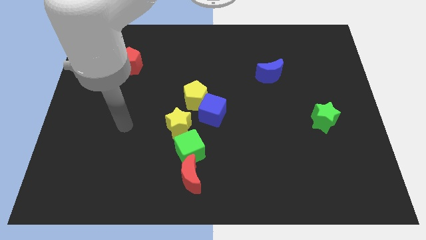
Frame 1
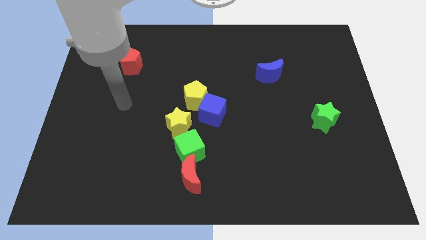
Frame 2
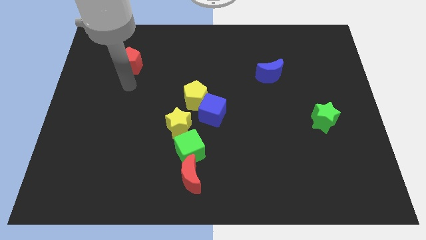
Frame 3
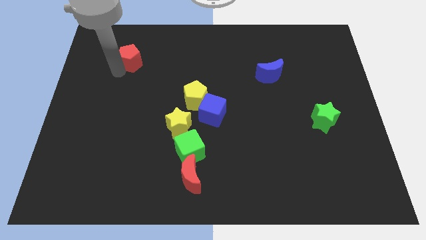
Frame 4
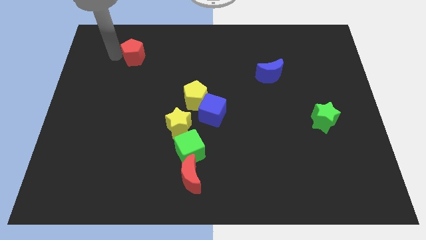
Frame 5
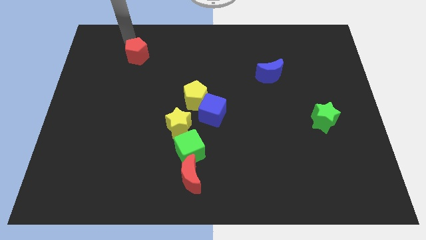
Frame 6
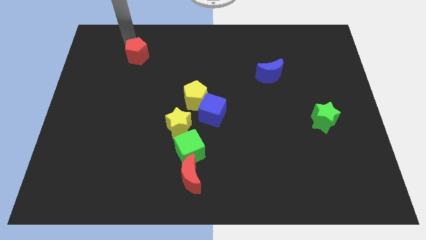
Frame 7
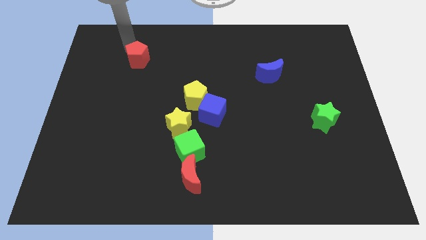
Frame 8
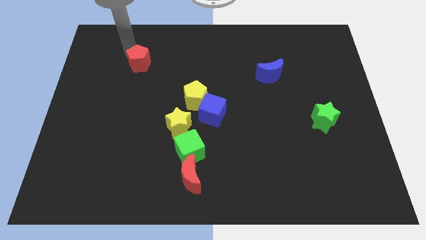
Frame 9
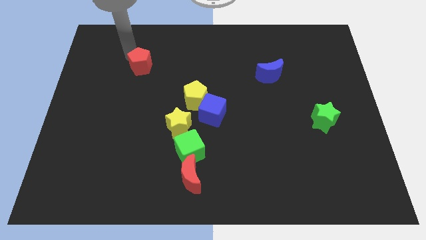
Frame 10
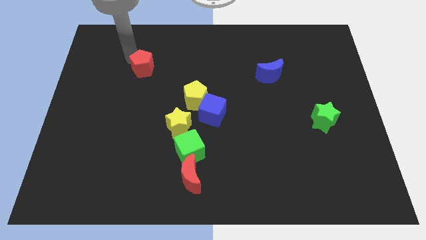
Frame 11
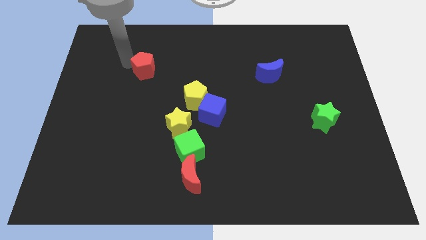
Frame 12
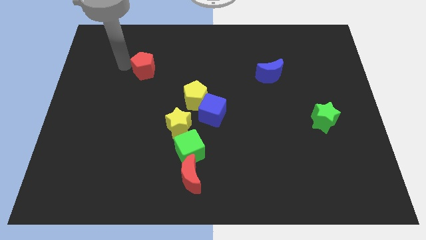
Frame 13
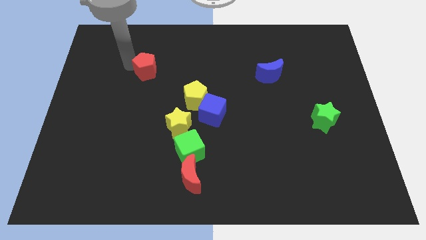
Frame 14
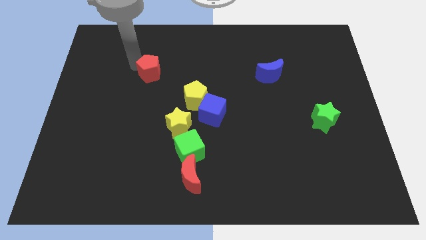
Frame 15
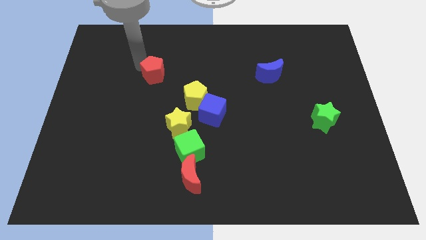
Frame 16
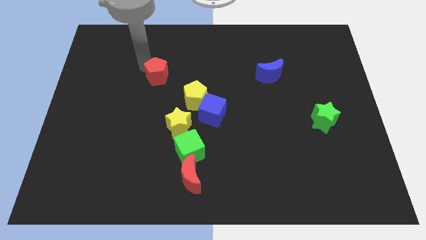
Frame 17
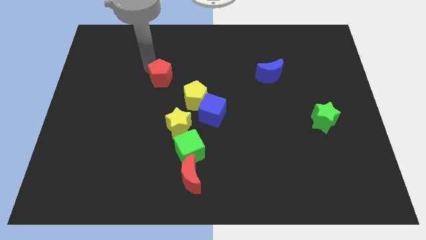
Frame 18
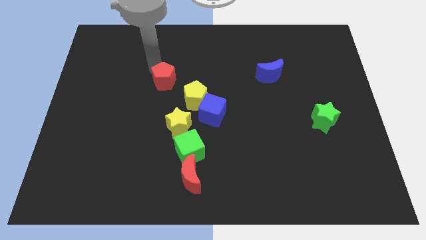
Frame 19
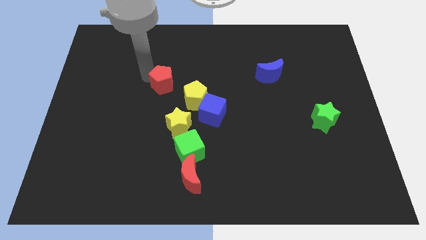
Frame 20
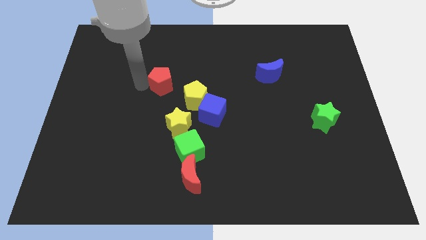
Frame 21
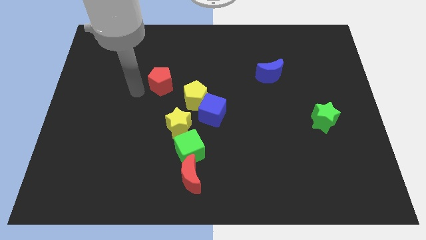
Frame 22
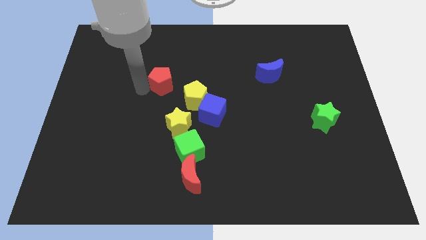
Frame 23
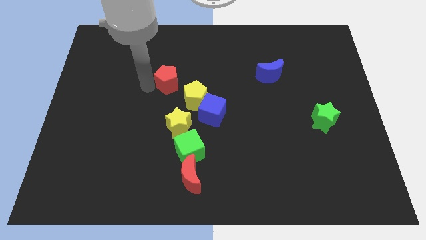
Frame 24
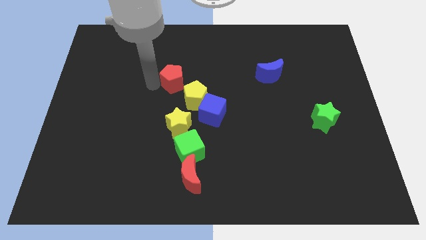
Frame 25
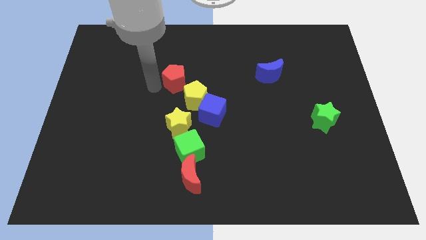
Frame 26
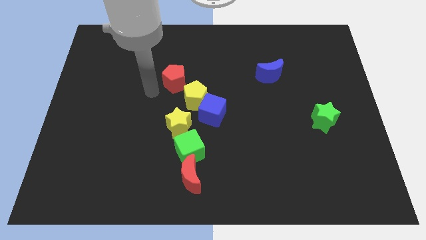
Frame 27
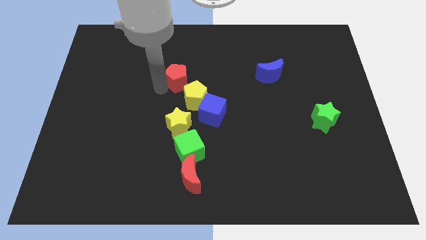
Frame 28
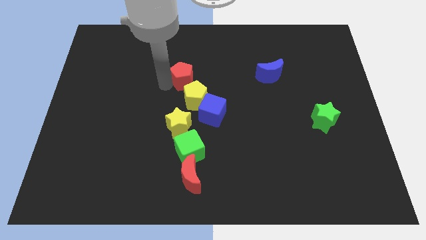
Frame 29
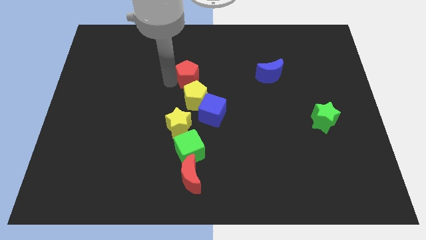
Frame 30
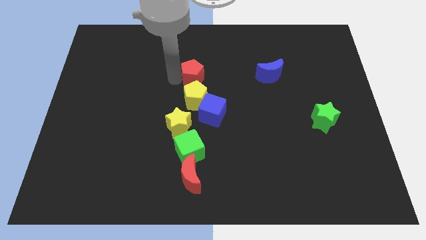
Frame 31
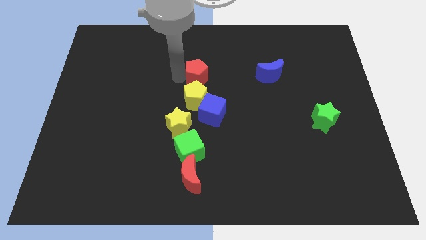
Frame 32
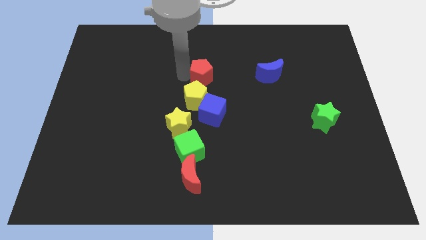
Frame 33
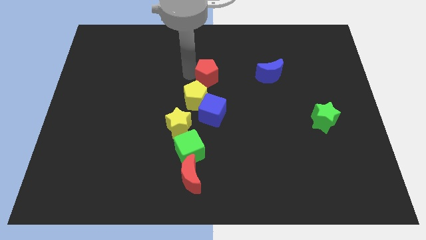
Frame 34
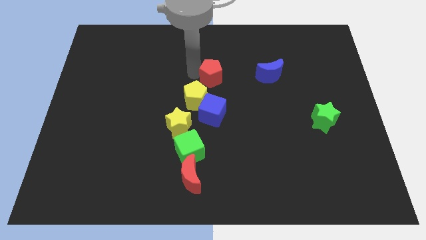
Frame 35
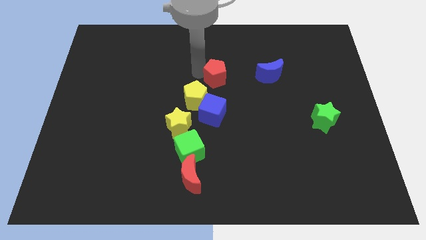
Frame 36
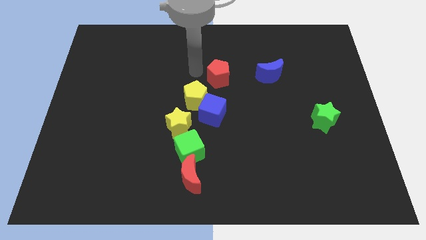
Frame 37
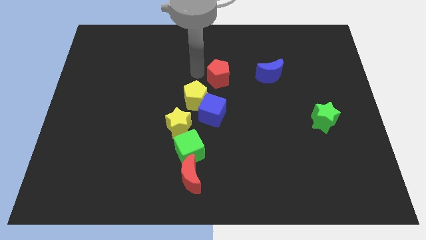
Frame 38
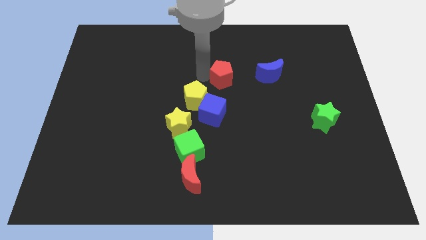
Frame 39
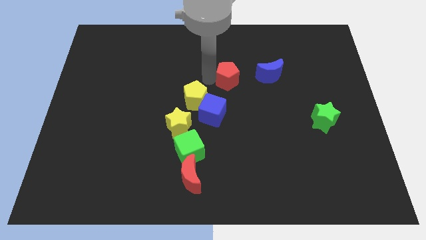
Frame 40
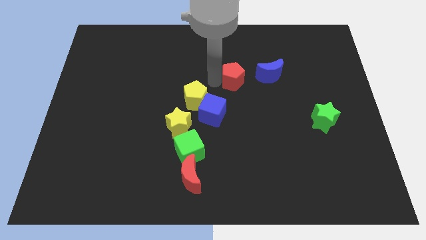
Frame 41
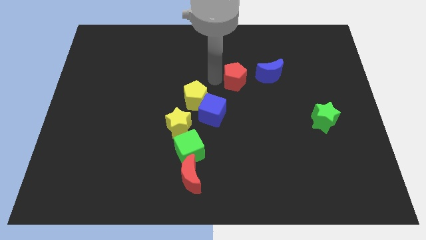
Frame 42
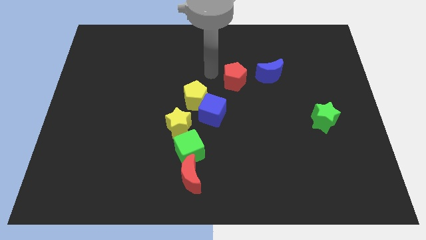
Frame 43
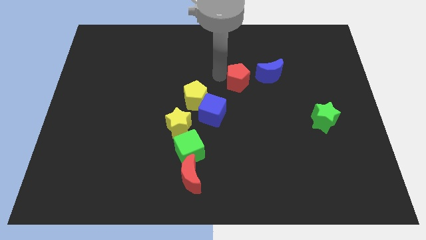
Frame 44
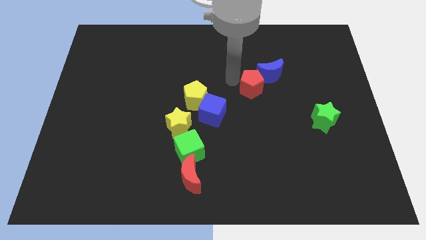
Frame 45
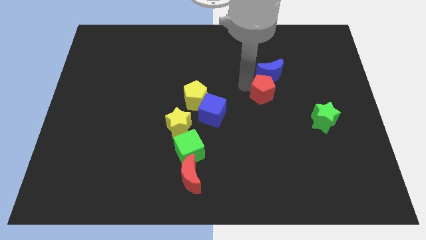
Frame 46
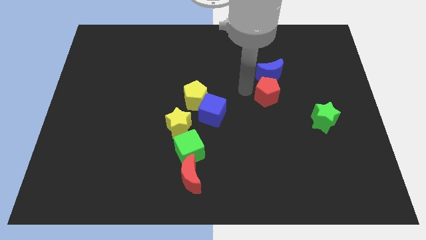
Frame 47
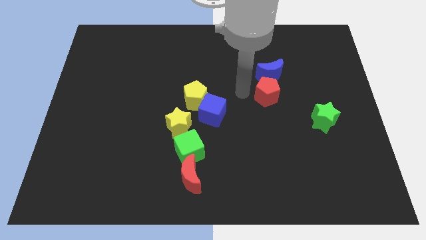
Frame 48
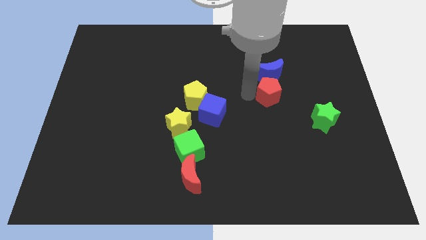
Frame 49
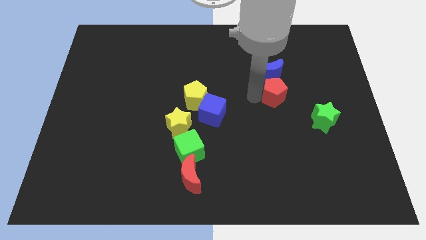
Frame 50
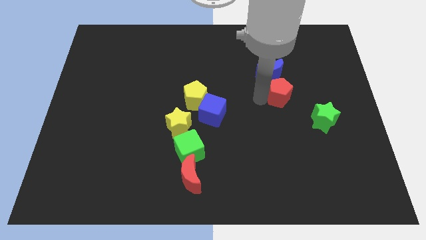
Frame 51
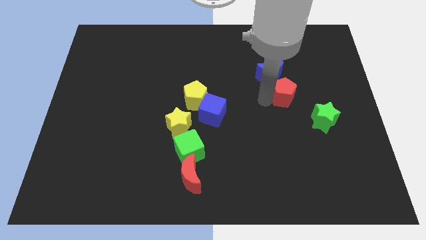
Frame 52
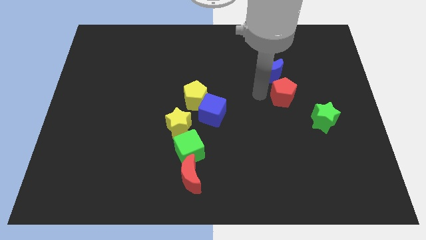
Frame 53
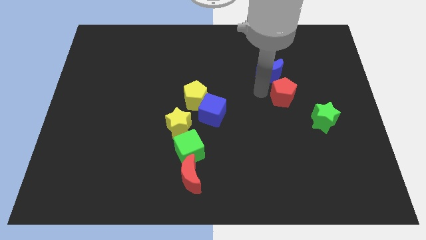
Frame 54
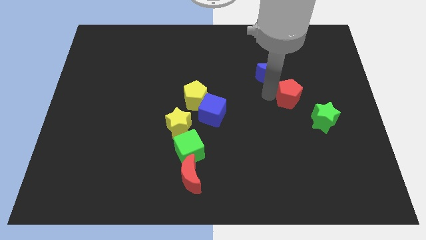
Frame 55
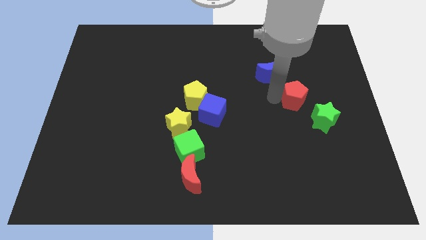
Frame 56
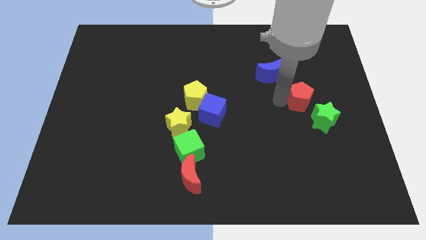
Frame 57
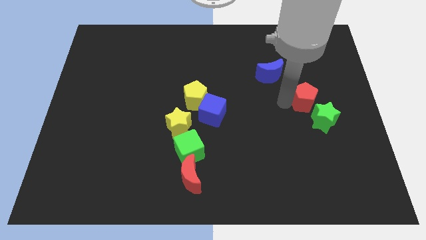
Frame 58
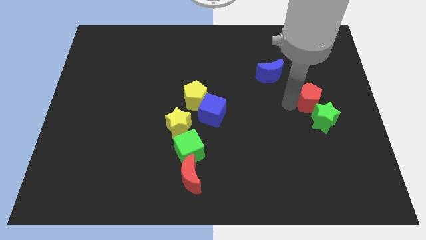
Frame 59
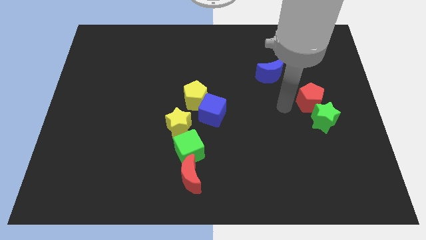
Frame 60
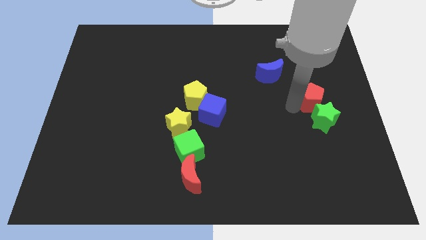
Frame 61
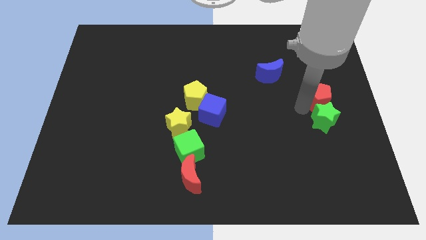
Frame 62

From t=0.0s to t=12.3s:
push the red pentagon to the center right

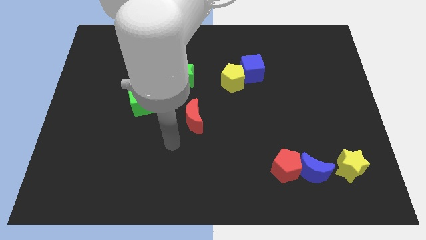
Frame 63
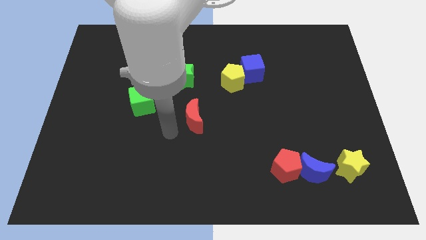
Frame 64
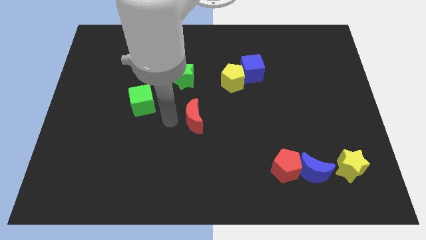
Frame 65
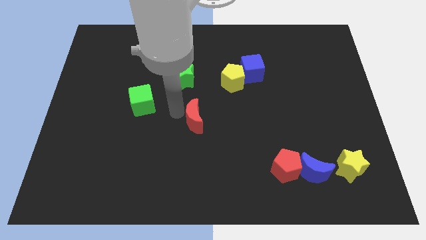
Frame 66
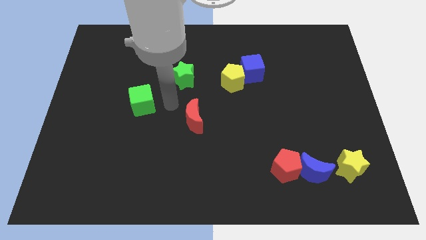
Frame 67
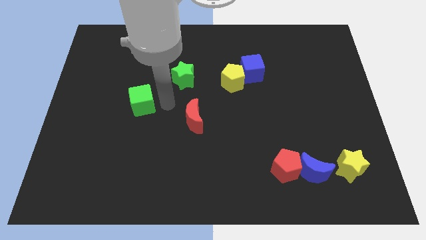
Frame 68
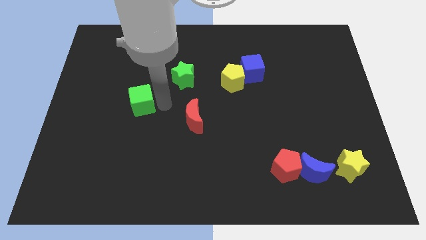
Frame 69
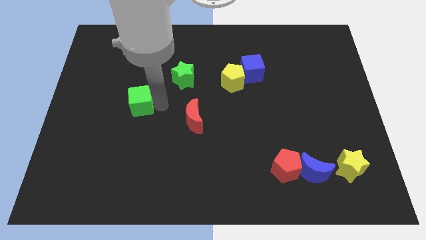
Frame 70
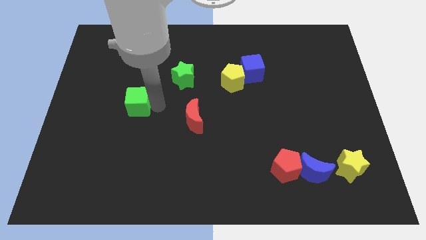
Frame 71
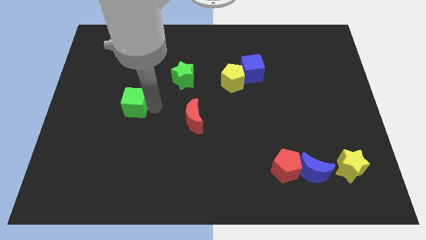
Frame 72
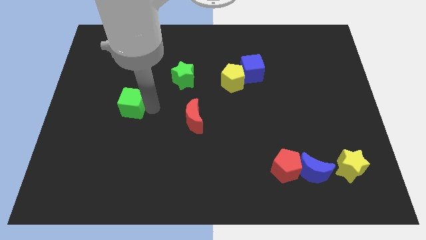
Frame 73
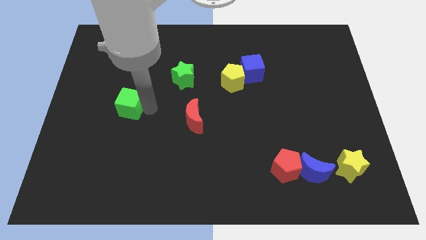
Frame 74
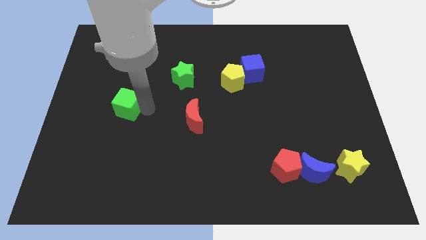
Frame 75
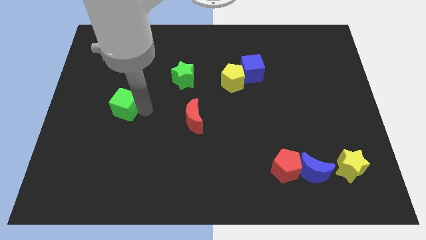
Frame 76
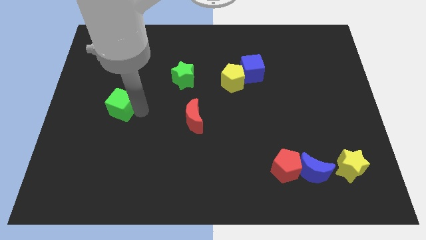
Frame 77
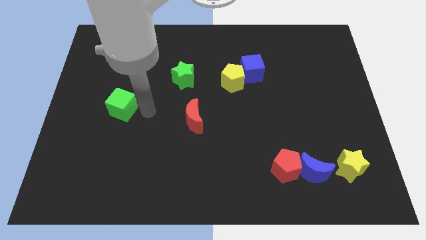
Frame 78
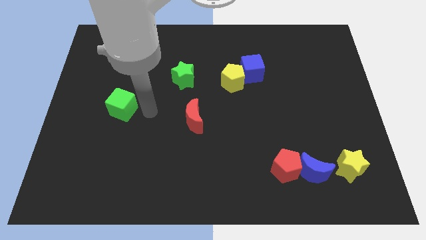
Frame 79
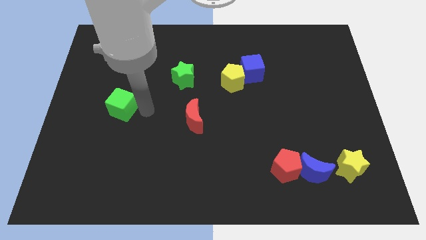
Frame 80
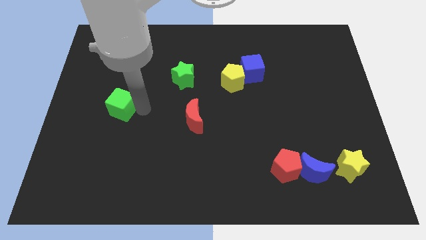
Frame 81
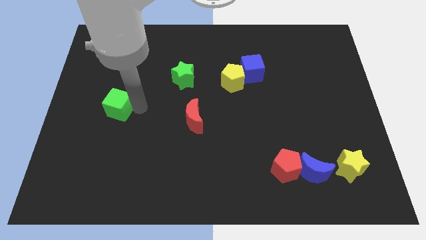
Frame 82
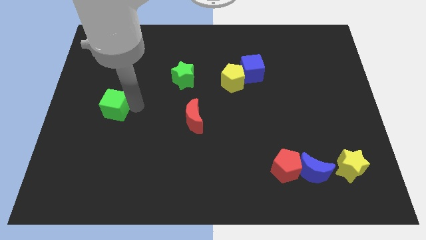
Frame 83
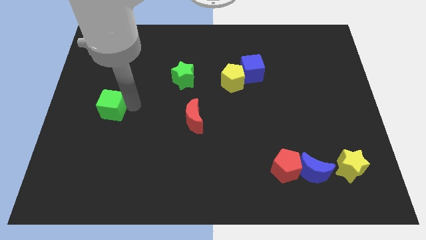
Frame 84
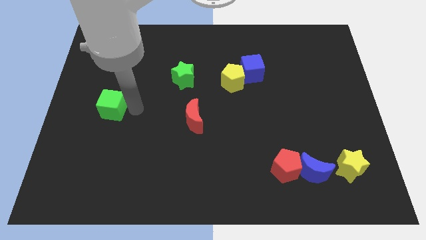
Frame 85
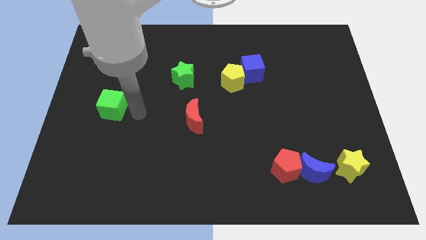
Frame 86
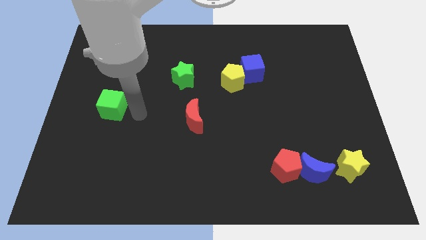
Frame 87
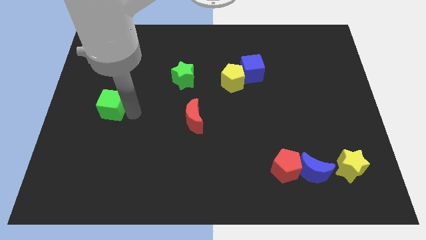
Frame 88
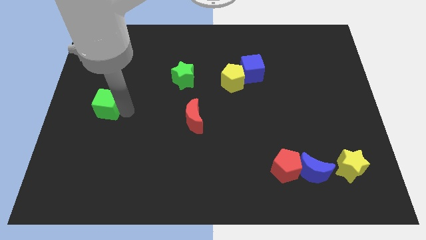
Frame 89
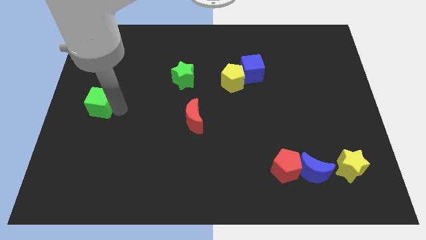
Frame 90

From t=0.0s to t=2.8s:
slide the green cube to the left side of the board
